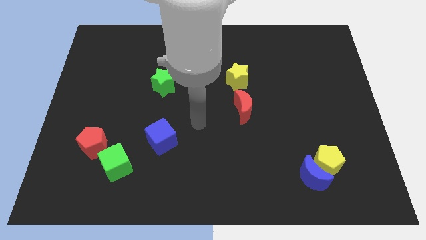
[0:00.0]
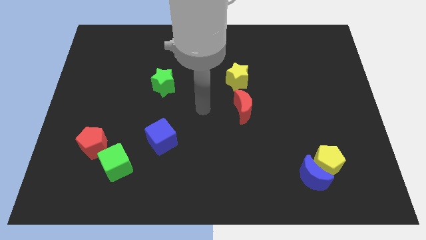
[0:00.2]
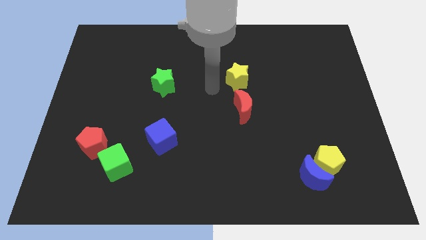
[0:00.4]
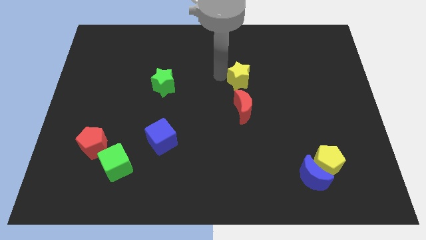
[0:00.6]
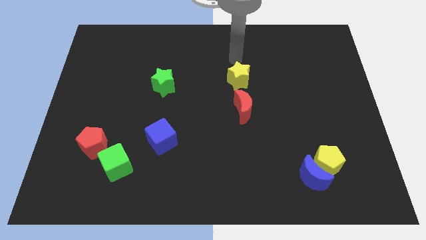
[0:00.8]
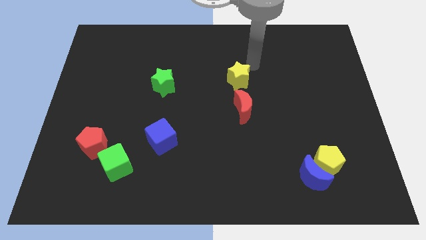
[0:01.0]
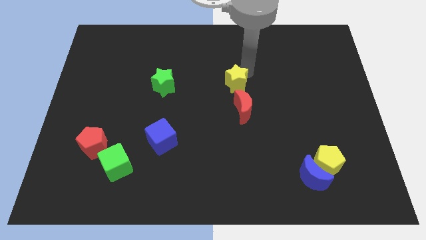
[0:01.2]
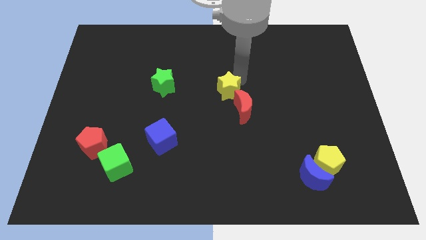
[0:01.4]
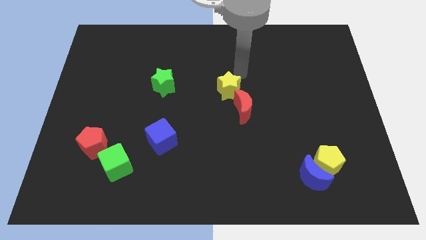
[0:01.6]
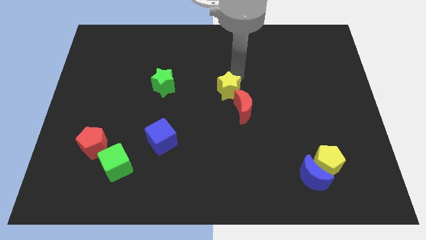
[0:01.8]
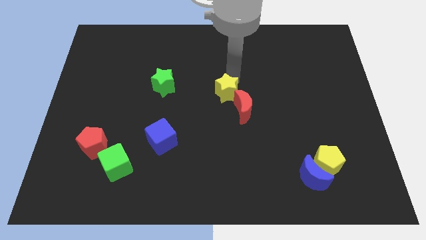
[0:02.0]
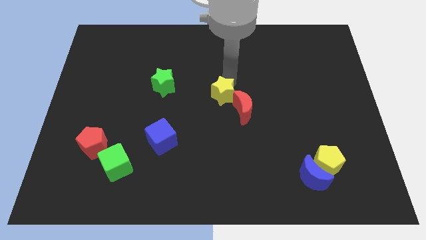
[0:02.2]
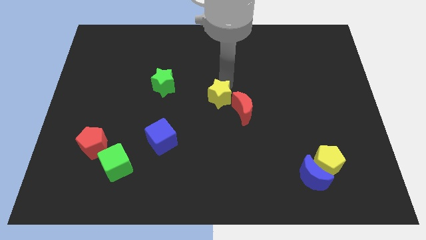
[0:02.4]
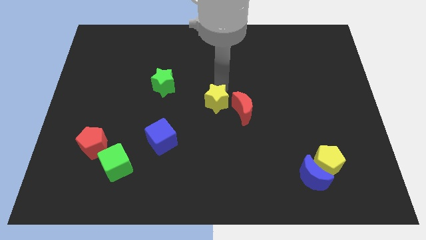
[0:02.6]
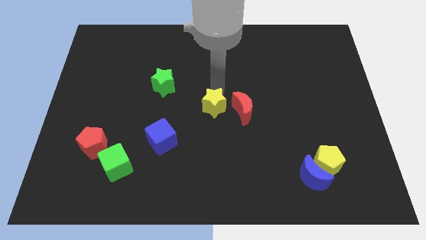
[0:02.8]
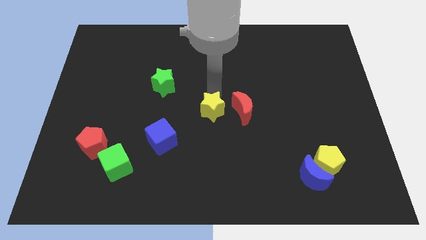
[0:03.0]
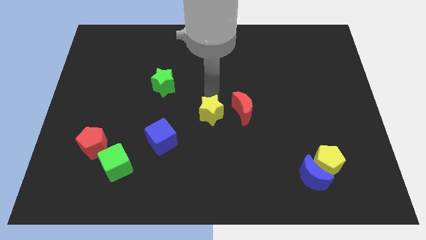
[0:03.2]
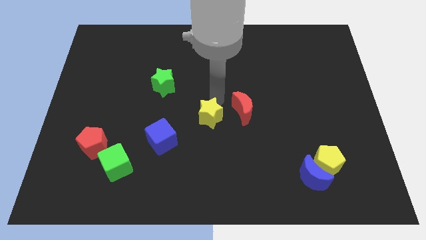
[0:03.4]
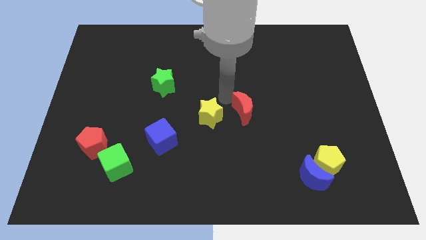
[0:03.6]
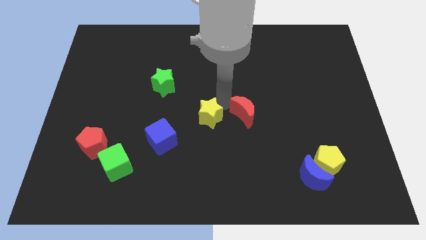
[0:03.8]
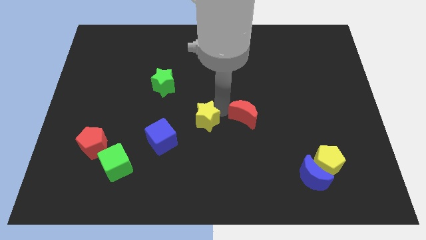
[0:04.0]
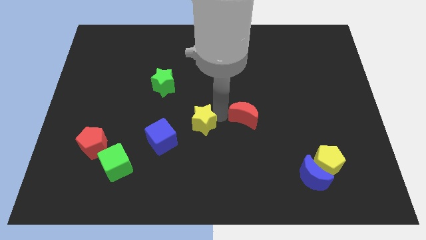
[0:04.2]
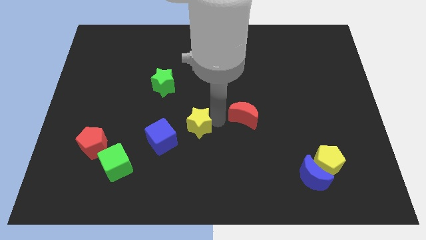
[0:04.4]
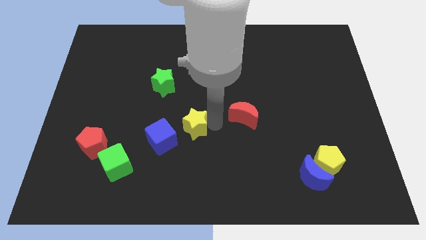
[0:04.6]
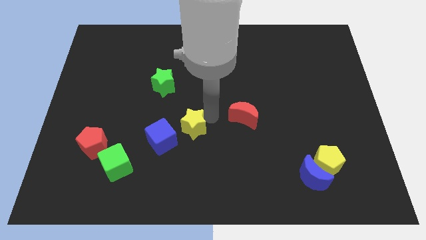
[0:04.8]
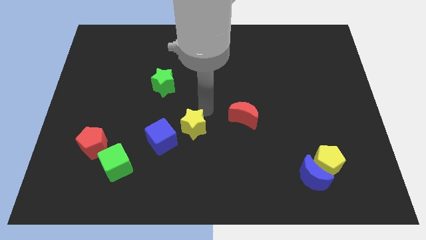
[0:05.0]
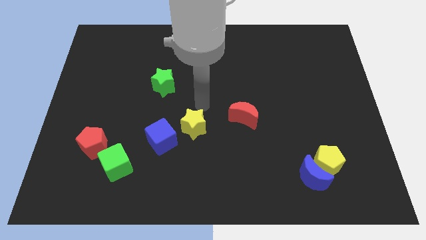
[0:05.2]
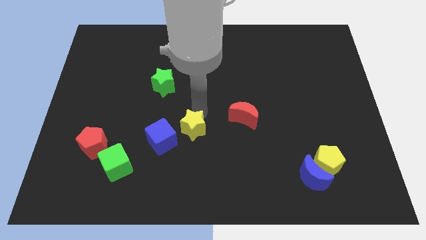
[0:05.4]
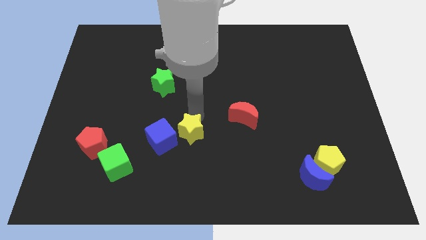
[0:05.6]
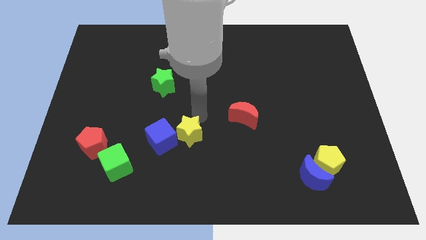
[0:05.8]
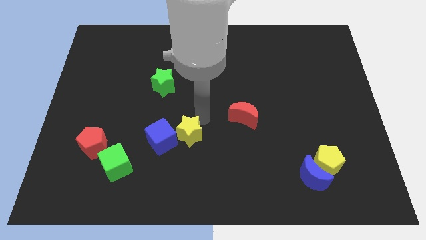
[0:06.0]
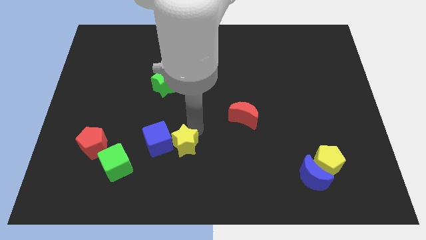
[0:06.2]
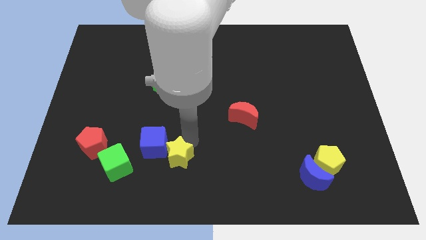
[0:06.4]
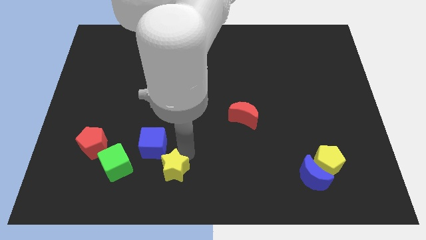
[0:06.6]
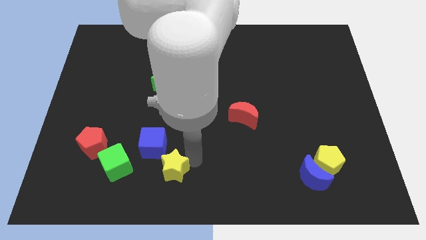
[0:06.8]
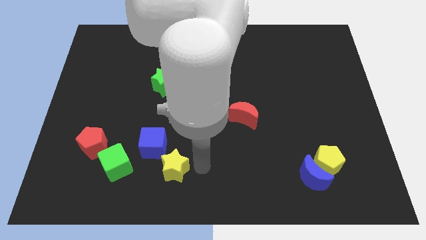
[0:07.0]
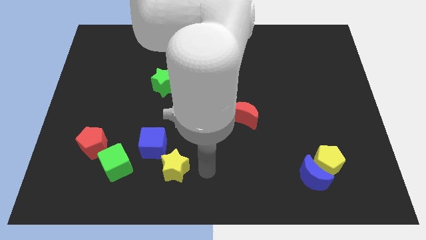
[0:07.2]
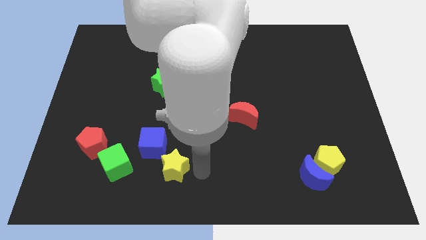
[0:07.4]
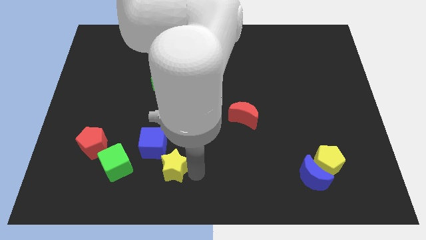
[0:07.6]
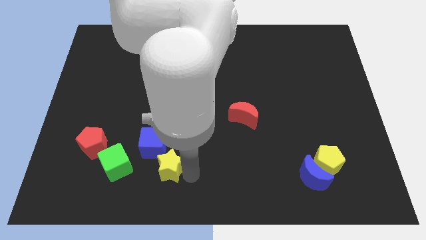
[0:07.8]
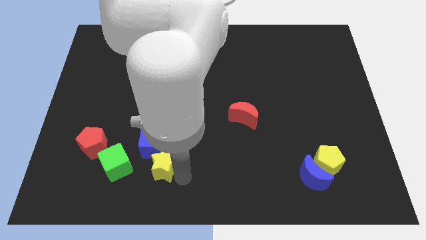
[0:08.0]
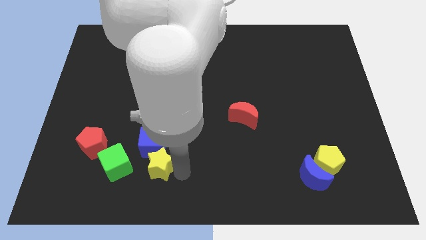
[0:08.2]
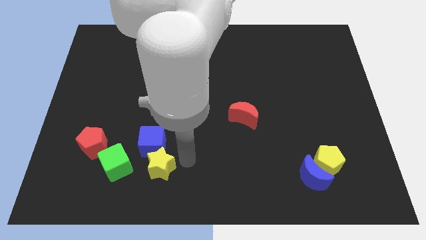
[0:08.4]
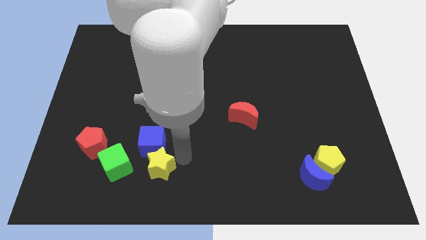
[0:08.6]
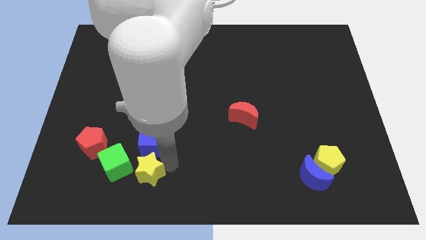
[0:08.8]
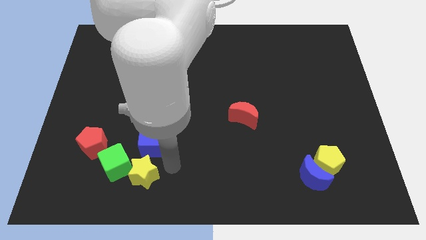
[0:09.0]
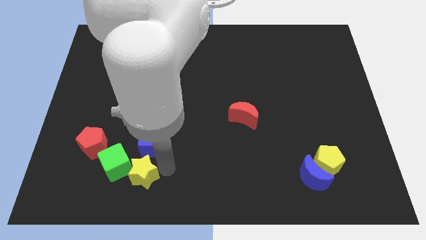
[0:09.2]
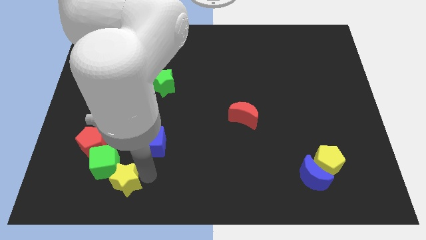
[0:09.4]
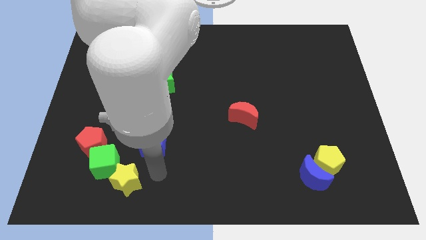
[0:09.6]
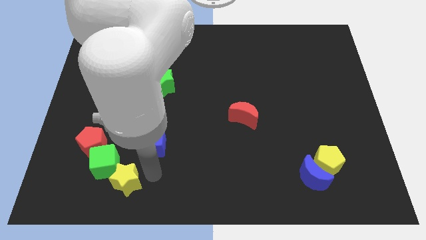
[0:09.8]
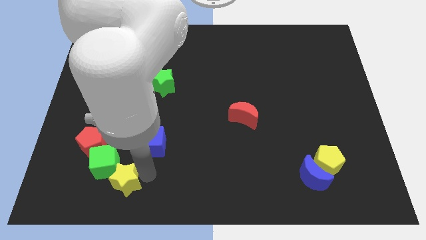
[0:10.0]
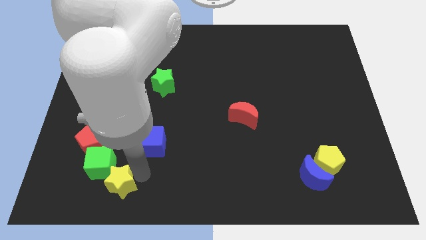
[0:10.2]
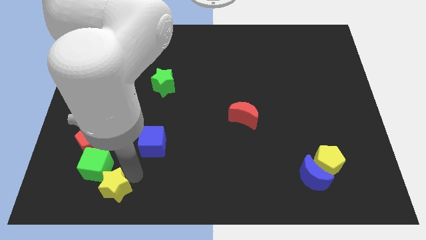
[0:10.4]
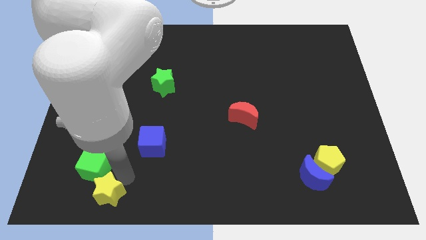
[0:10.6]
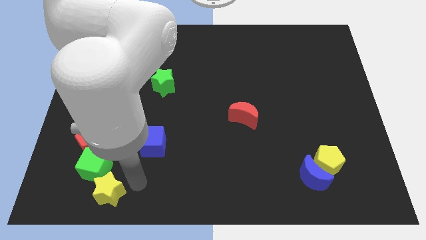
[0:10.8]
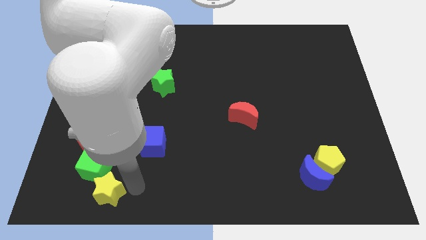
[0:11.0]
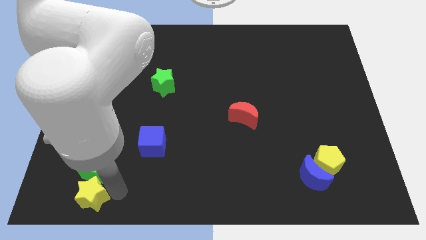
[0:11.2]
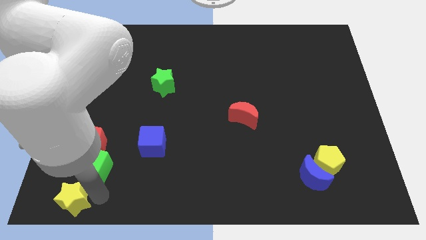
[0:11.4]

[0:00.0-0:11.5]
move the yellow star to the bottom left

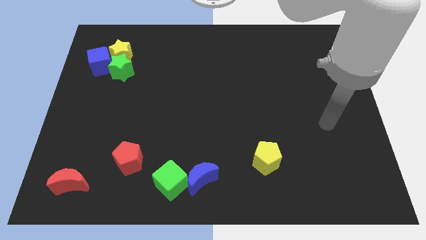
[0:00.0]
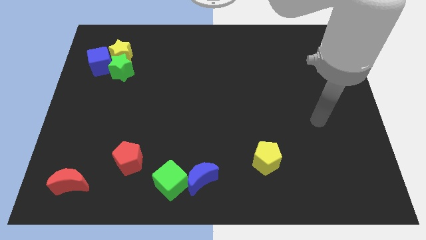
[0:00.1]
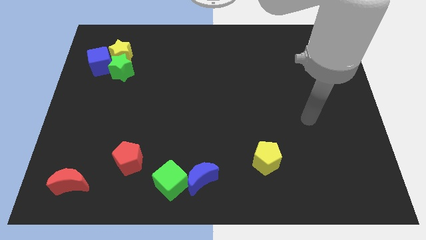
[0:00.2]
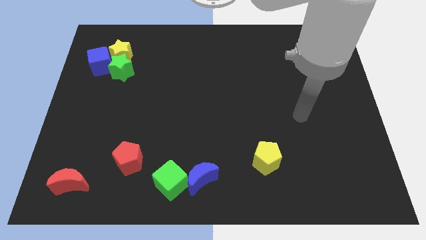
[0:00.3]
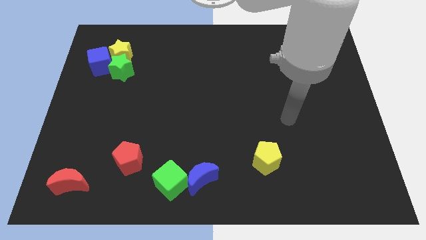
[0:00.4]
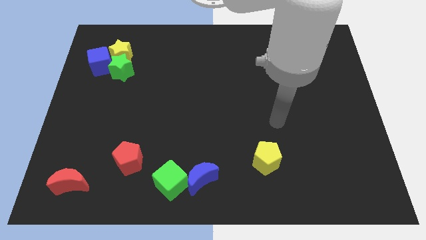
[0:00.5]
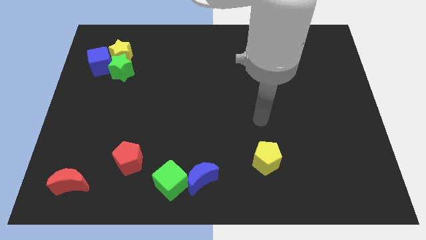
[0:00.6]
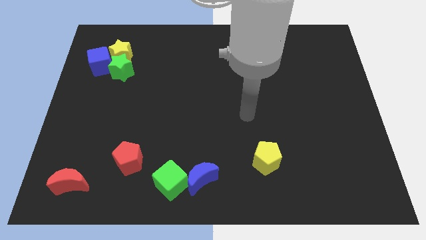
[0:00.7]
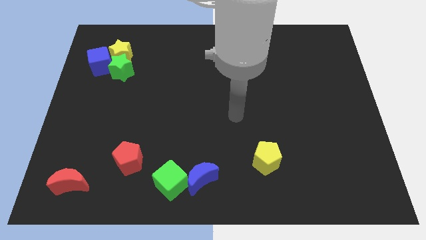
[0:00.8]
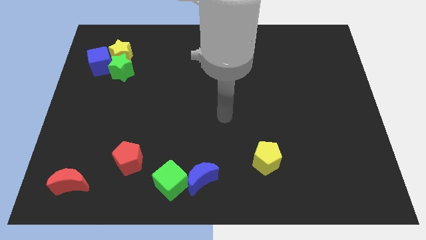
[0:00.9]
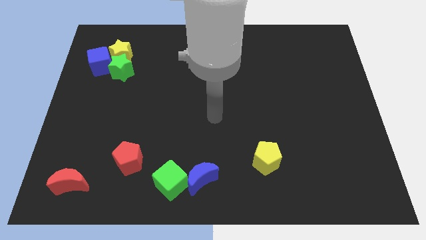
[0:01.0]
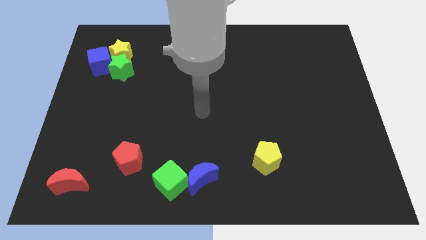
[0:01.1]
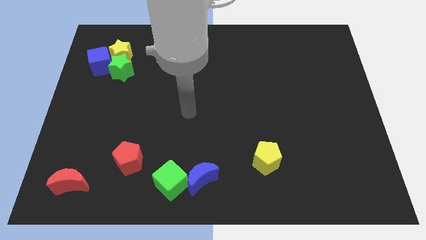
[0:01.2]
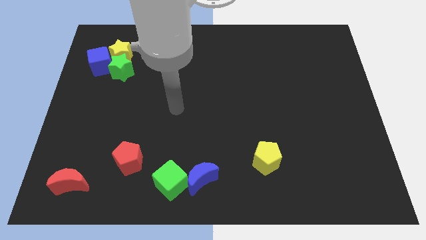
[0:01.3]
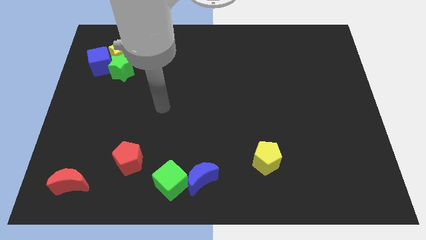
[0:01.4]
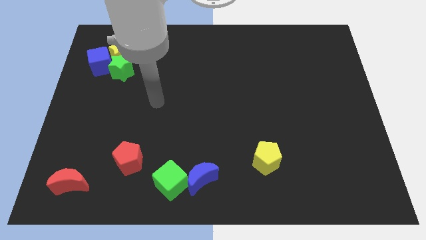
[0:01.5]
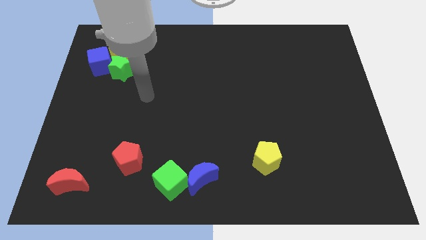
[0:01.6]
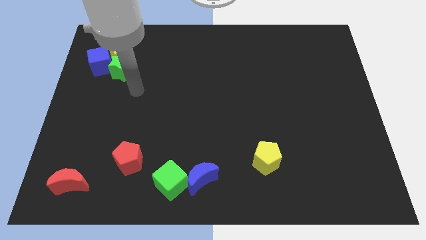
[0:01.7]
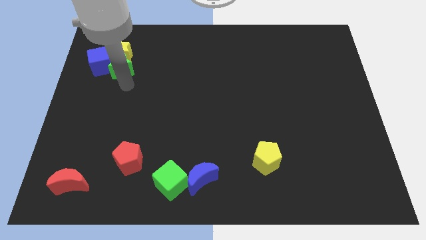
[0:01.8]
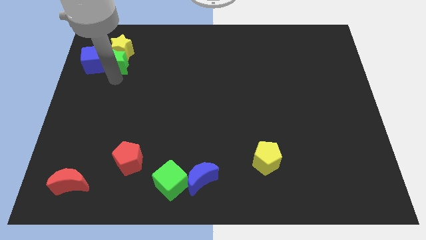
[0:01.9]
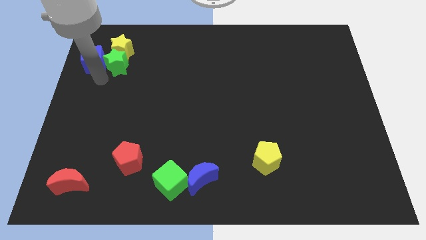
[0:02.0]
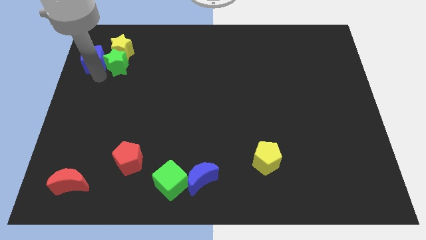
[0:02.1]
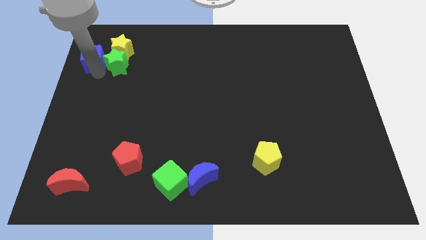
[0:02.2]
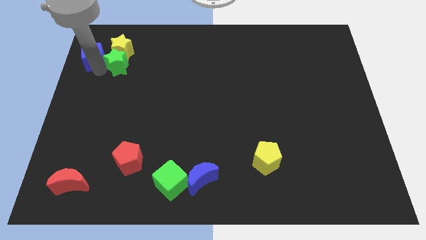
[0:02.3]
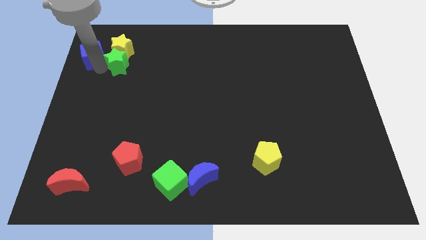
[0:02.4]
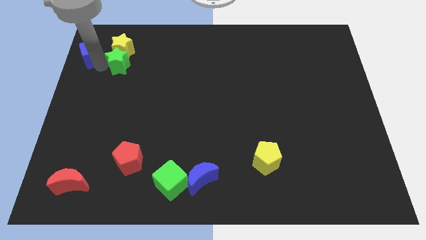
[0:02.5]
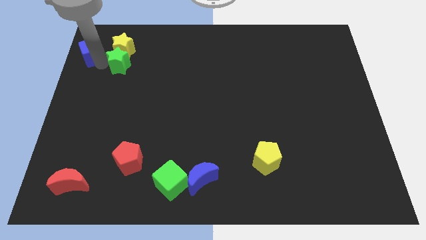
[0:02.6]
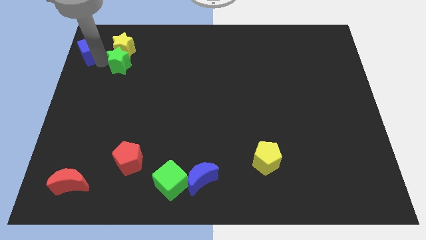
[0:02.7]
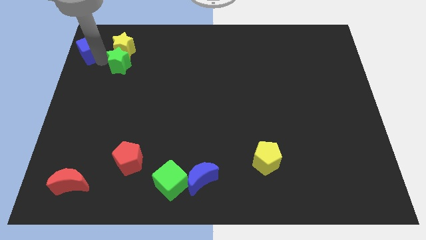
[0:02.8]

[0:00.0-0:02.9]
push the blue cube to the top left
